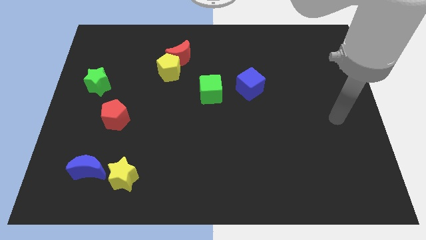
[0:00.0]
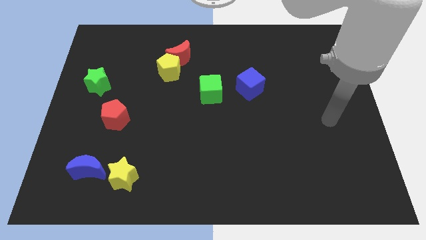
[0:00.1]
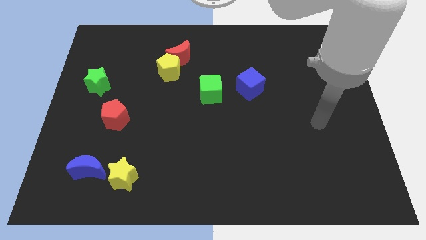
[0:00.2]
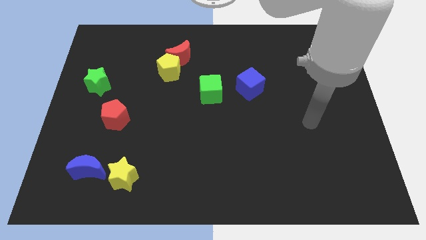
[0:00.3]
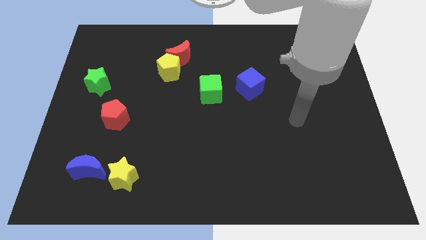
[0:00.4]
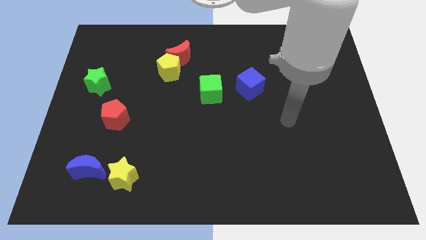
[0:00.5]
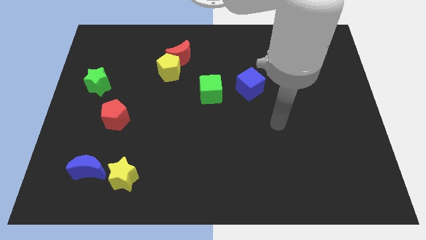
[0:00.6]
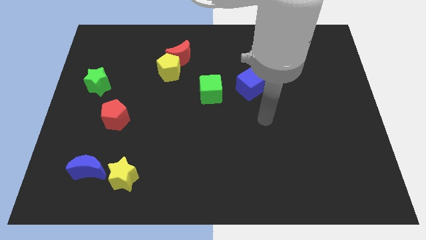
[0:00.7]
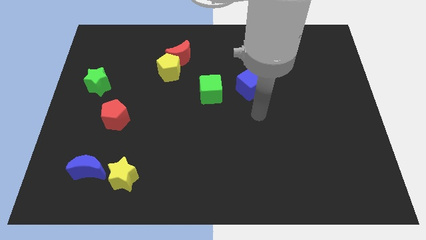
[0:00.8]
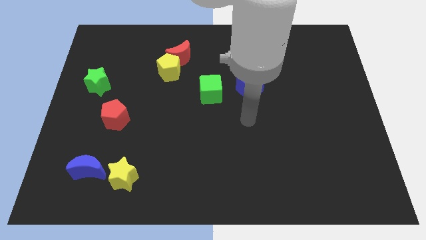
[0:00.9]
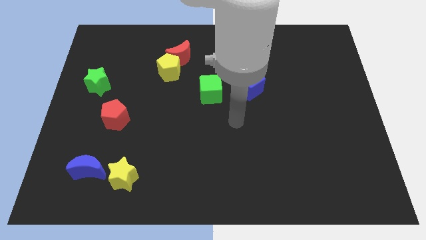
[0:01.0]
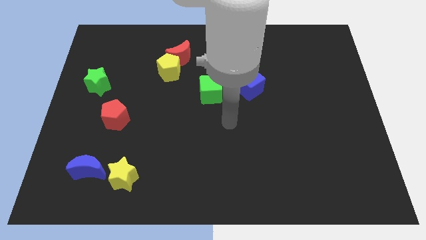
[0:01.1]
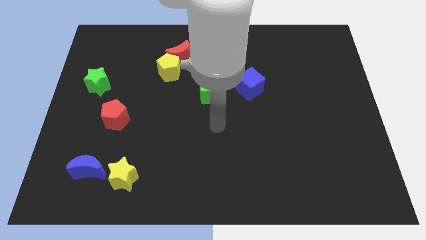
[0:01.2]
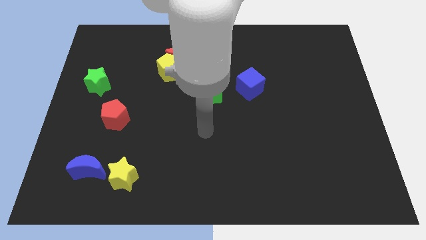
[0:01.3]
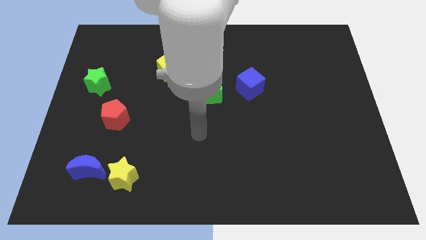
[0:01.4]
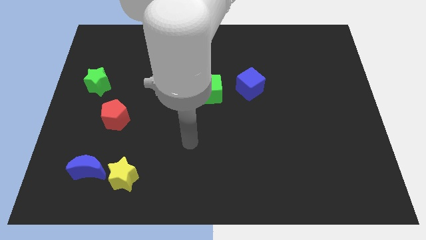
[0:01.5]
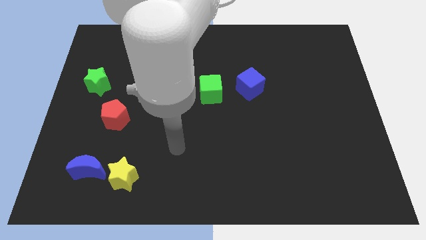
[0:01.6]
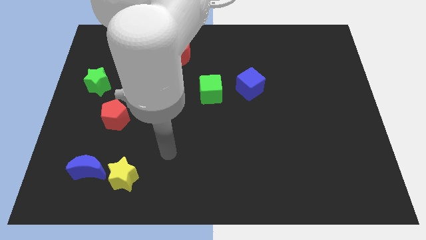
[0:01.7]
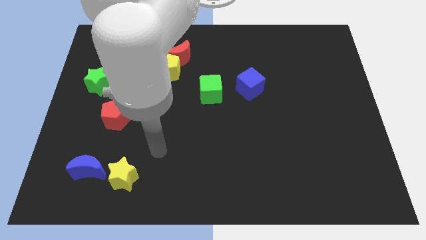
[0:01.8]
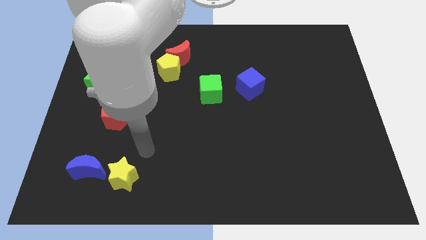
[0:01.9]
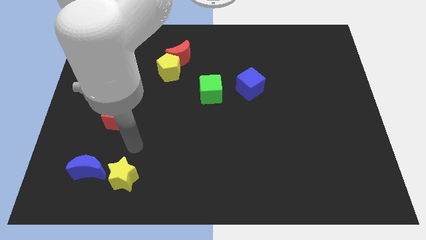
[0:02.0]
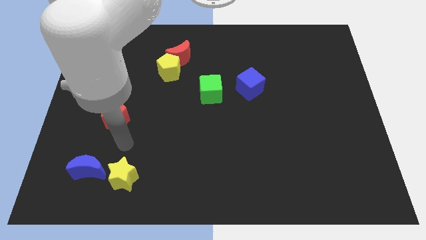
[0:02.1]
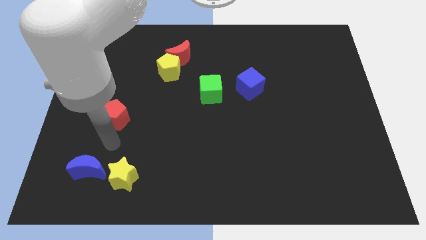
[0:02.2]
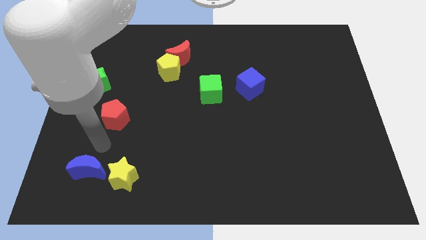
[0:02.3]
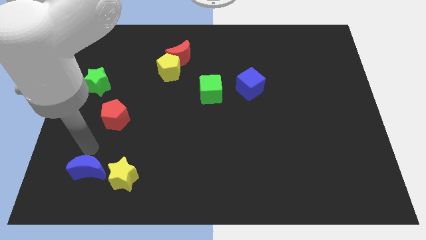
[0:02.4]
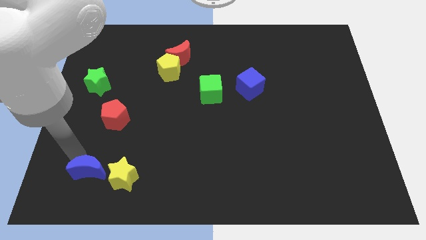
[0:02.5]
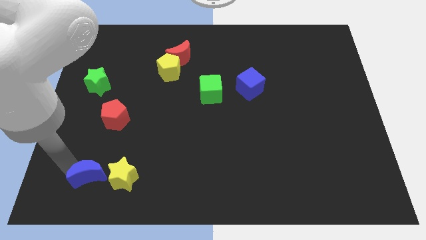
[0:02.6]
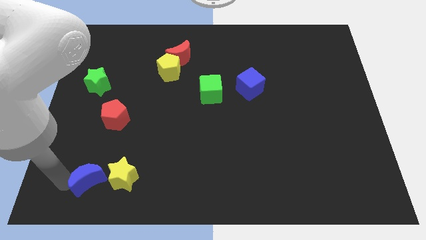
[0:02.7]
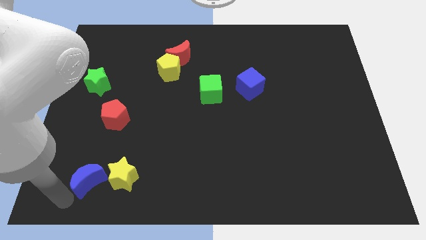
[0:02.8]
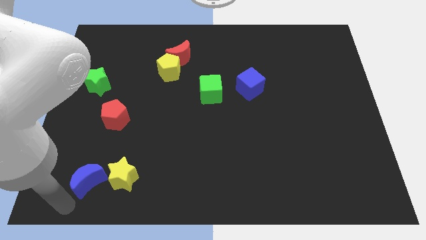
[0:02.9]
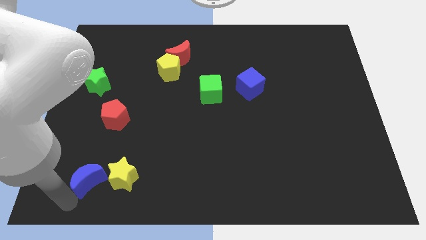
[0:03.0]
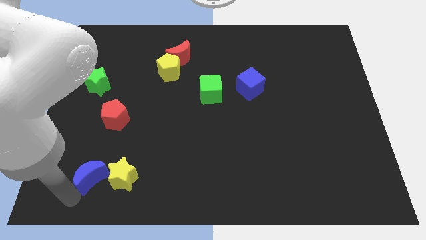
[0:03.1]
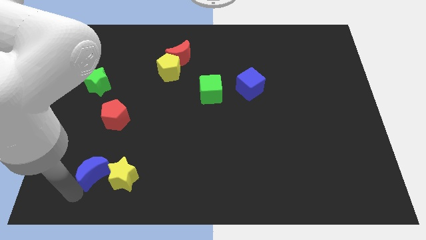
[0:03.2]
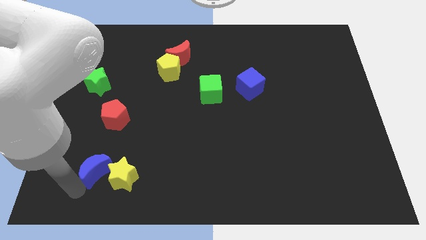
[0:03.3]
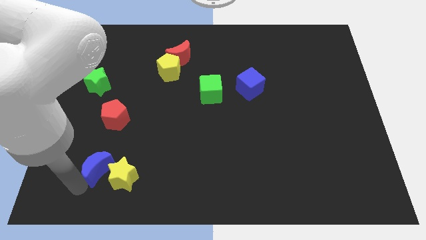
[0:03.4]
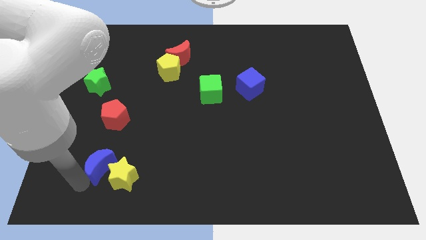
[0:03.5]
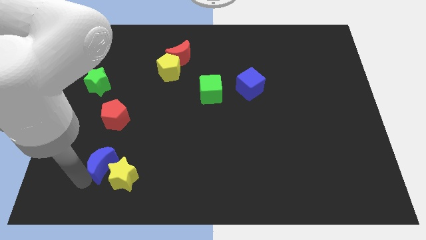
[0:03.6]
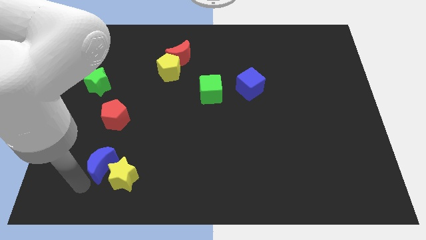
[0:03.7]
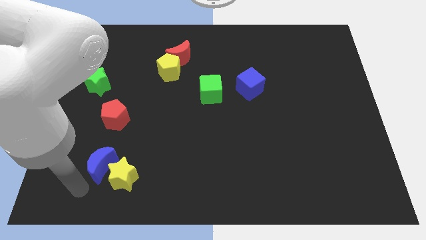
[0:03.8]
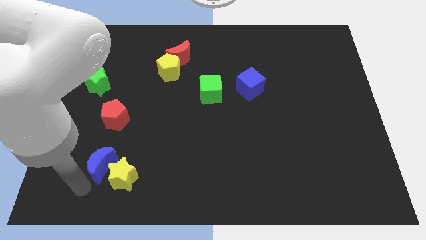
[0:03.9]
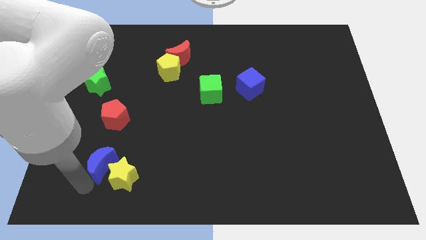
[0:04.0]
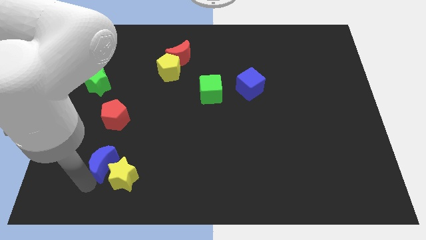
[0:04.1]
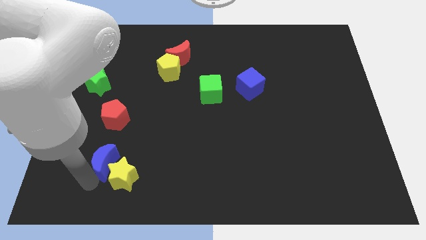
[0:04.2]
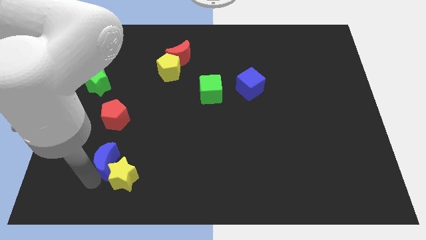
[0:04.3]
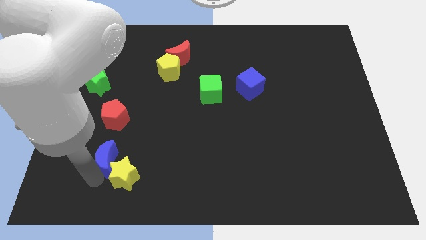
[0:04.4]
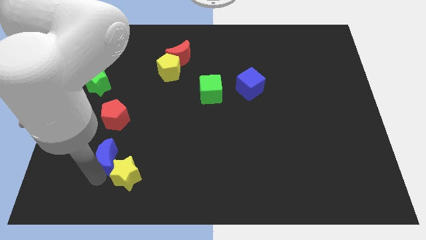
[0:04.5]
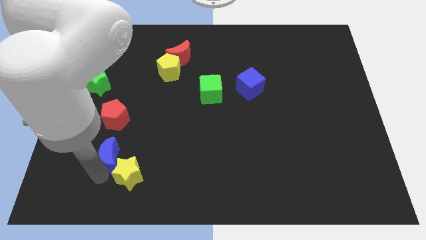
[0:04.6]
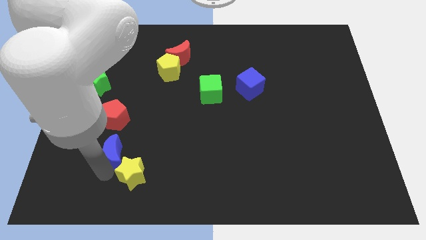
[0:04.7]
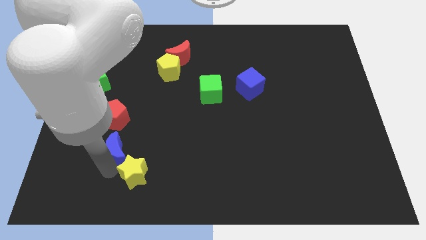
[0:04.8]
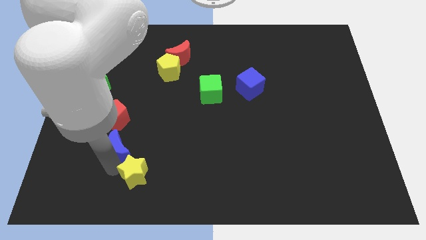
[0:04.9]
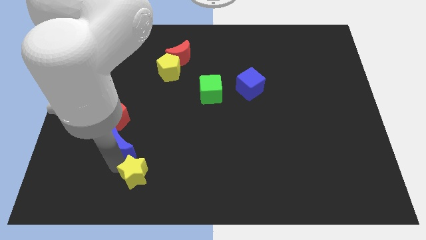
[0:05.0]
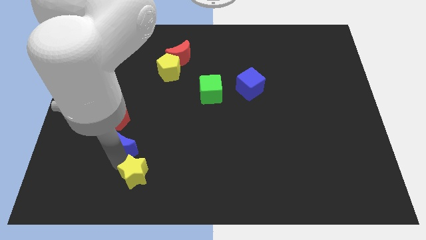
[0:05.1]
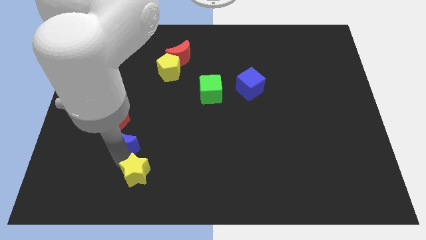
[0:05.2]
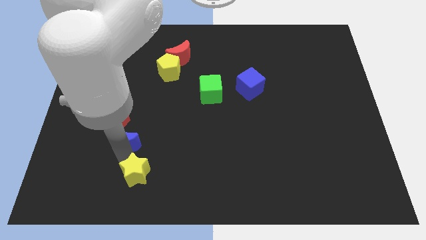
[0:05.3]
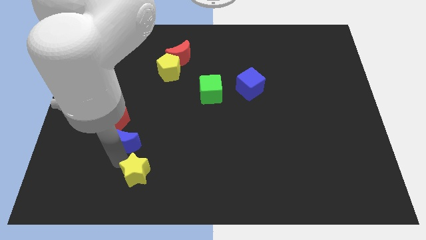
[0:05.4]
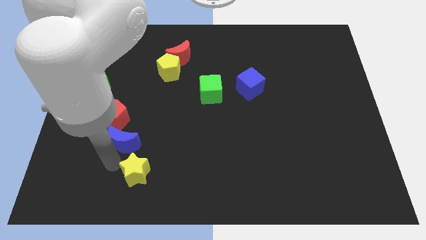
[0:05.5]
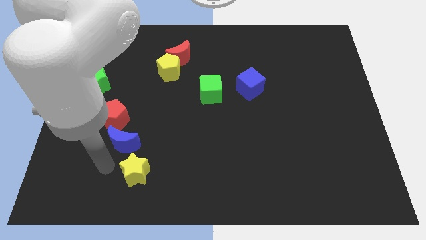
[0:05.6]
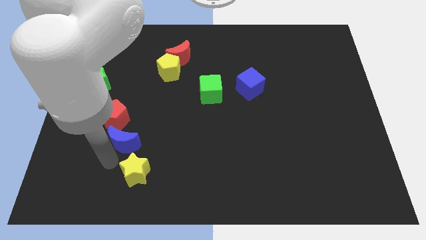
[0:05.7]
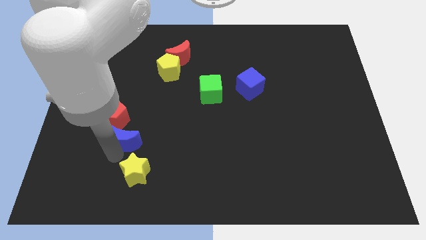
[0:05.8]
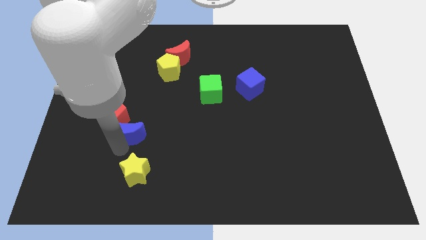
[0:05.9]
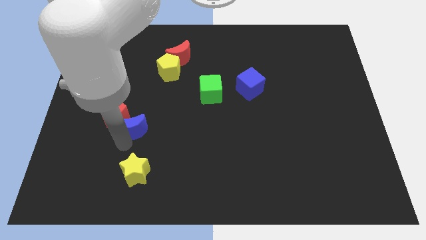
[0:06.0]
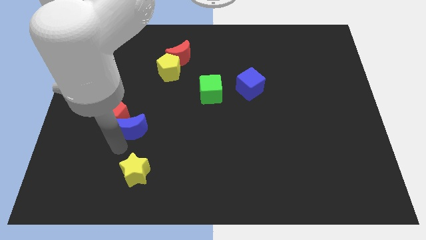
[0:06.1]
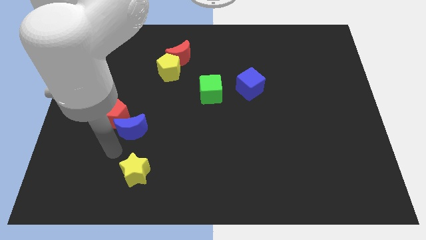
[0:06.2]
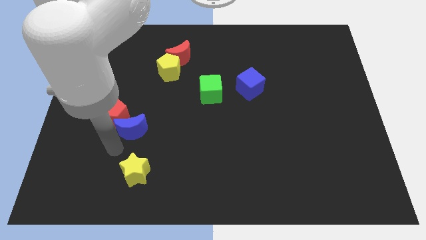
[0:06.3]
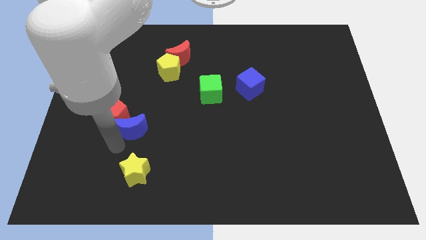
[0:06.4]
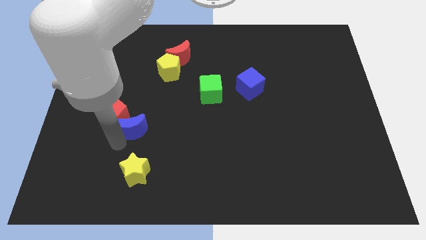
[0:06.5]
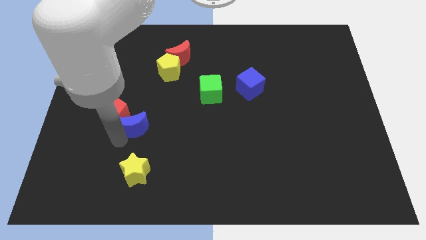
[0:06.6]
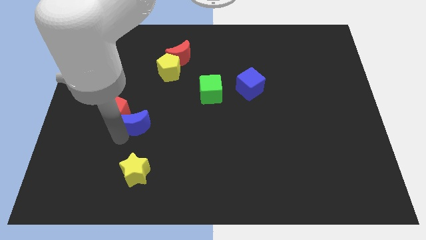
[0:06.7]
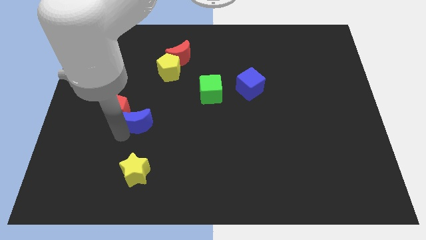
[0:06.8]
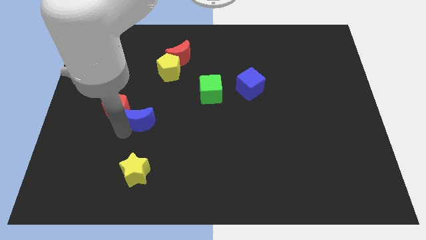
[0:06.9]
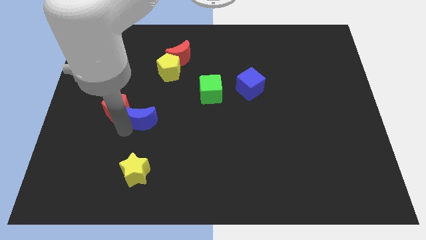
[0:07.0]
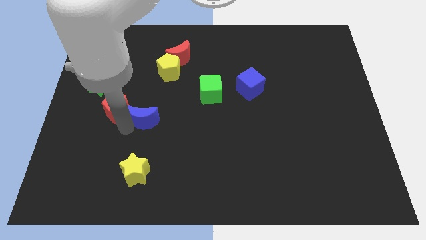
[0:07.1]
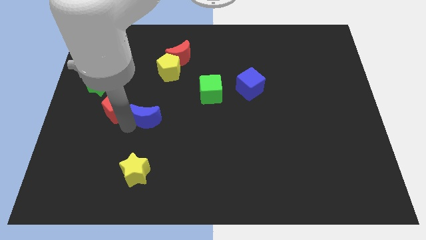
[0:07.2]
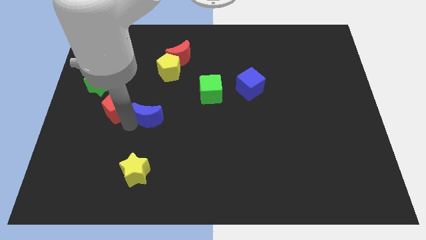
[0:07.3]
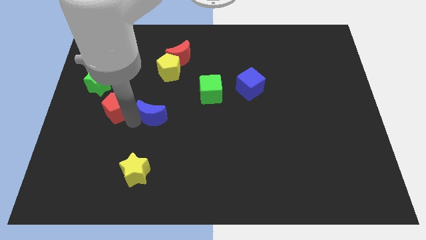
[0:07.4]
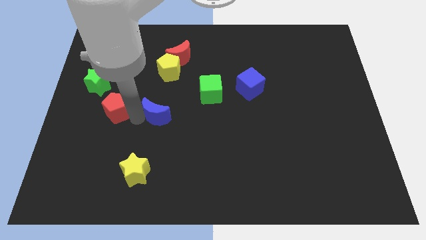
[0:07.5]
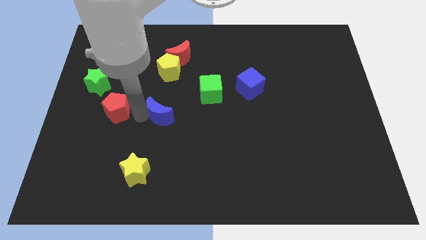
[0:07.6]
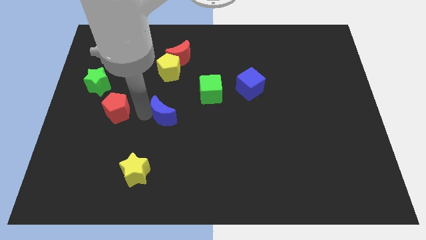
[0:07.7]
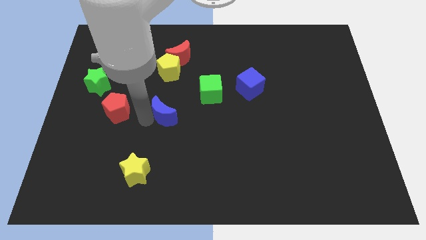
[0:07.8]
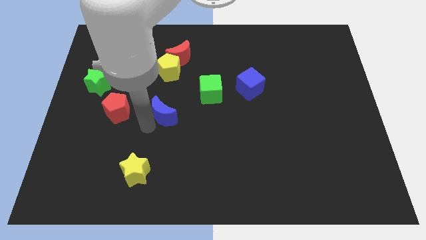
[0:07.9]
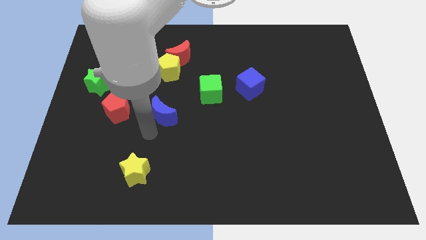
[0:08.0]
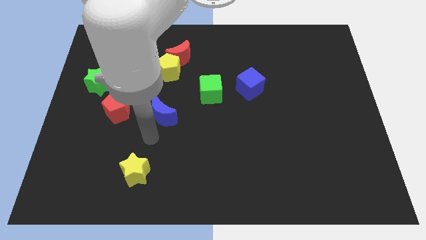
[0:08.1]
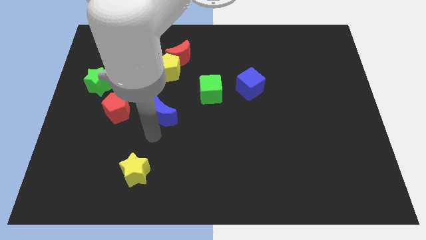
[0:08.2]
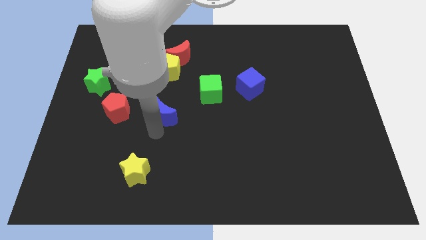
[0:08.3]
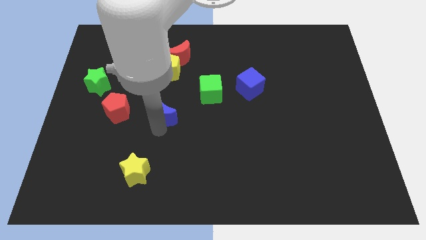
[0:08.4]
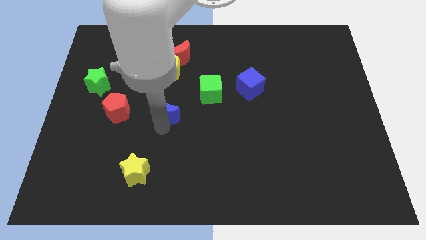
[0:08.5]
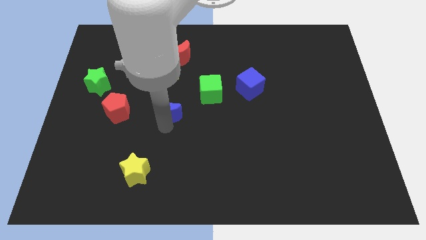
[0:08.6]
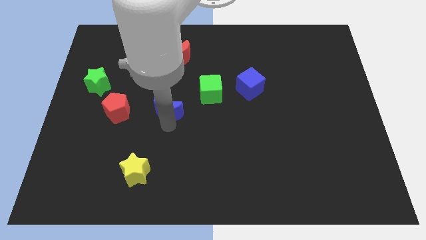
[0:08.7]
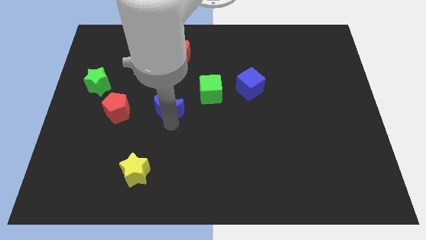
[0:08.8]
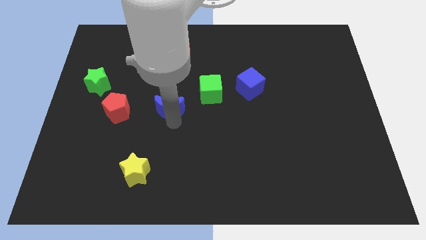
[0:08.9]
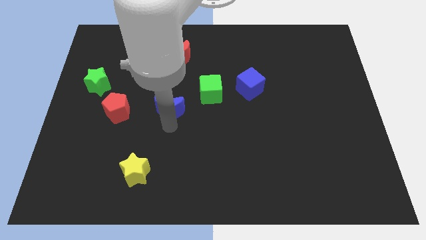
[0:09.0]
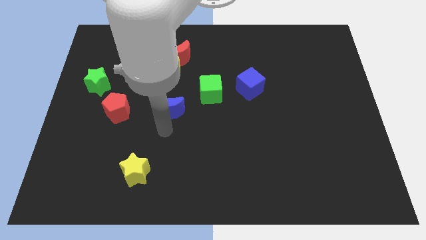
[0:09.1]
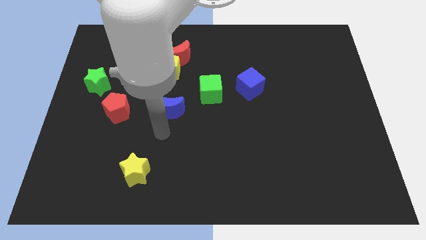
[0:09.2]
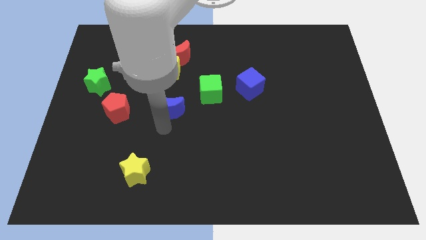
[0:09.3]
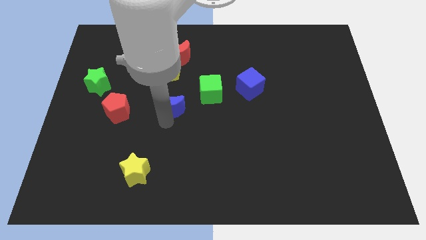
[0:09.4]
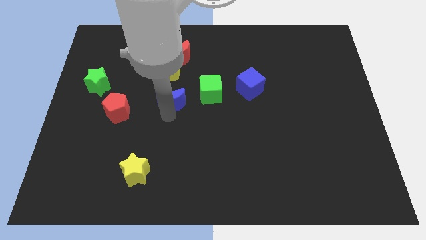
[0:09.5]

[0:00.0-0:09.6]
move the blue moon to the bottom side of the red moon
